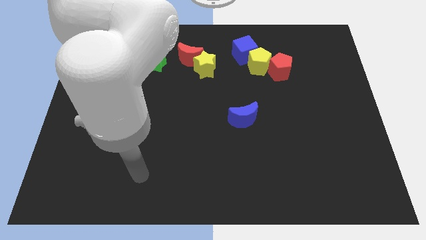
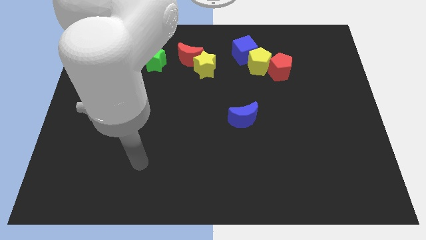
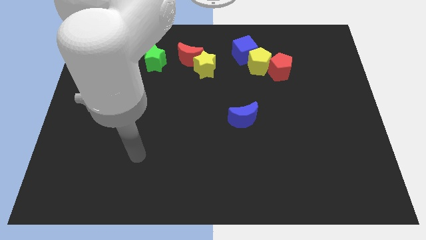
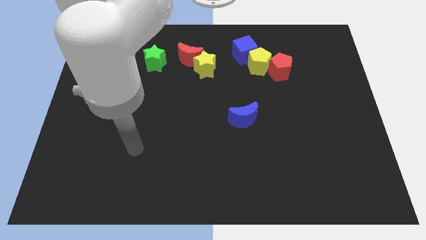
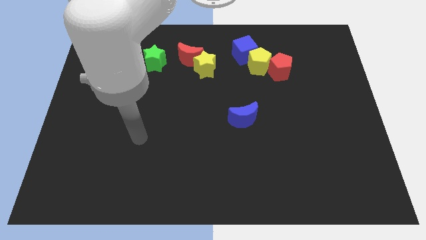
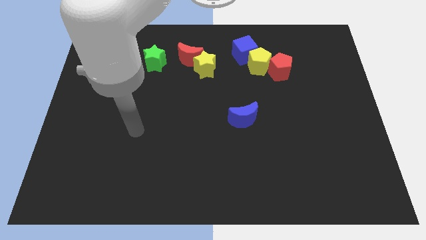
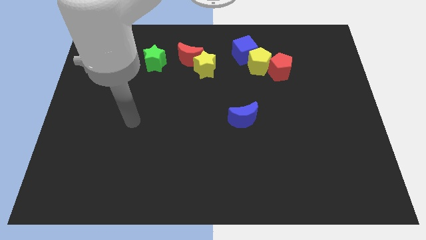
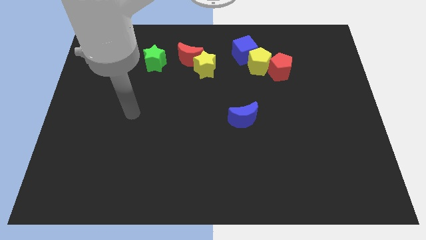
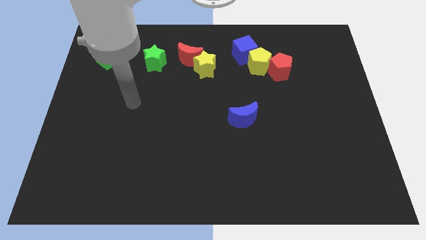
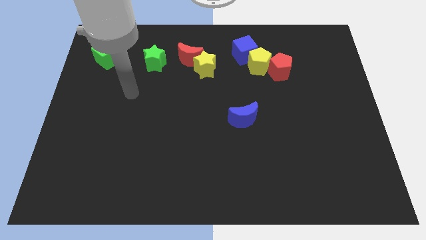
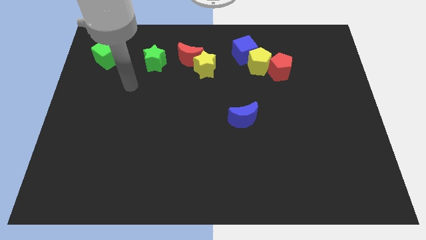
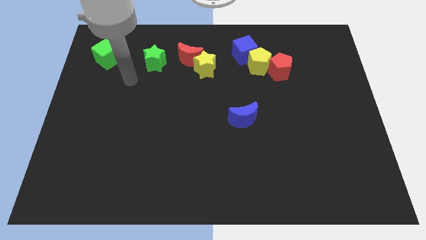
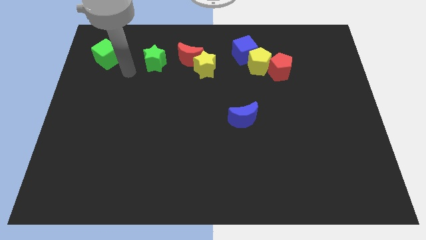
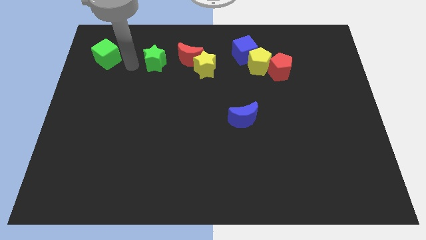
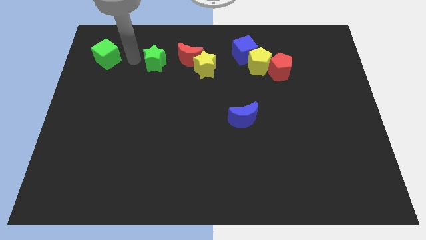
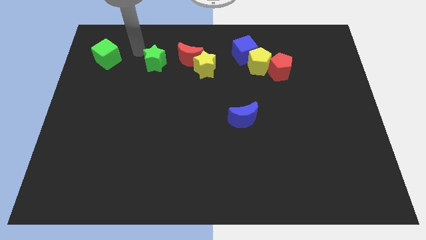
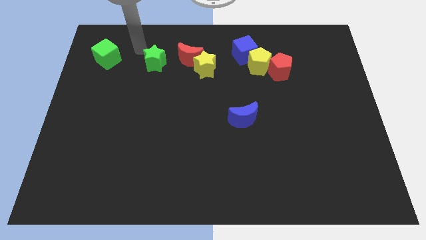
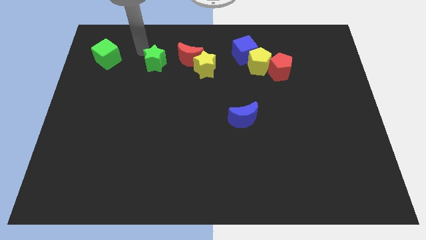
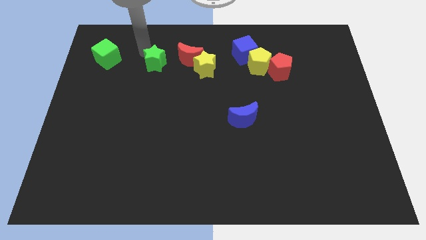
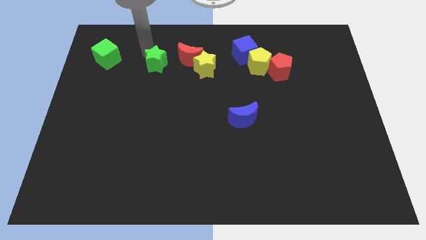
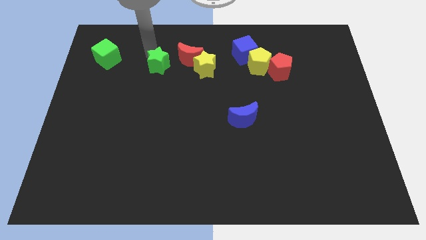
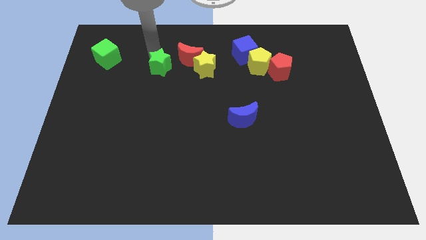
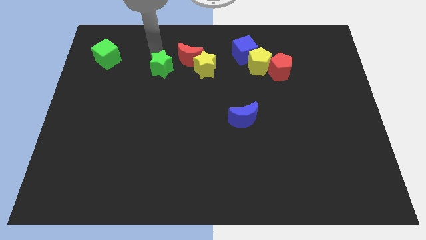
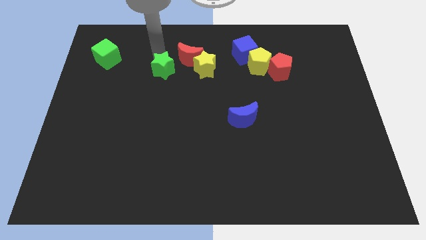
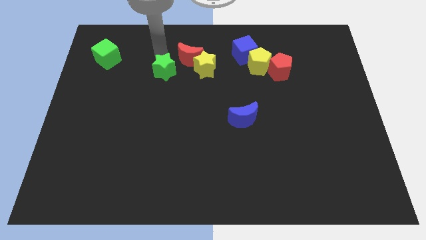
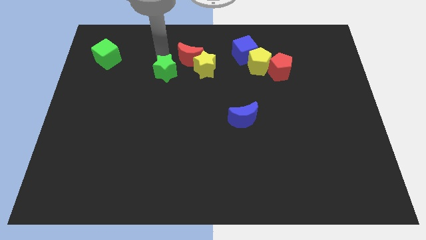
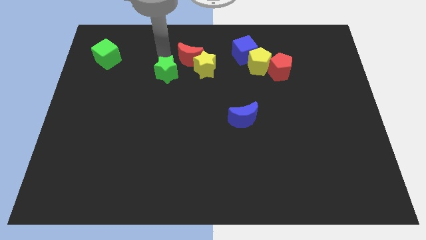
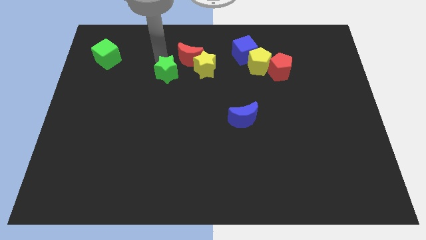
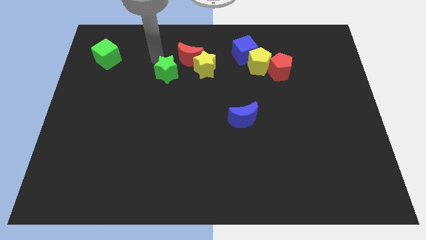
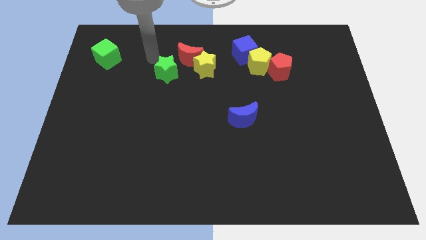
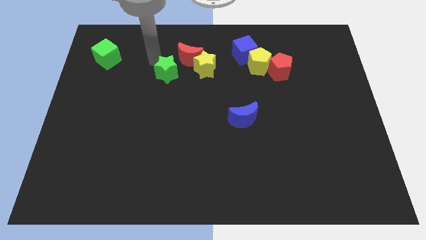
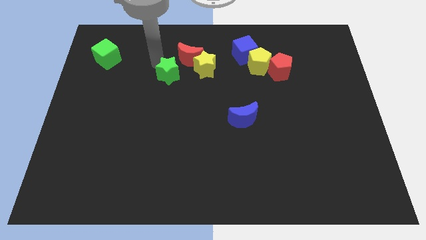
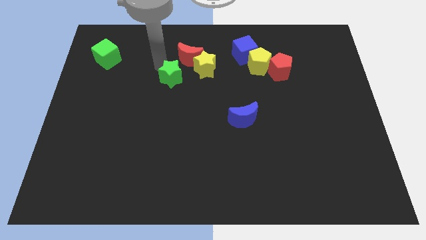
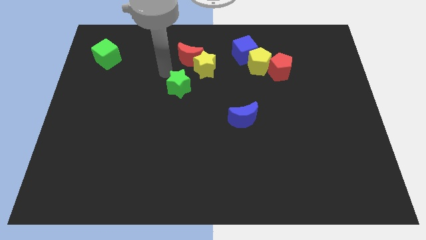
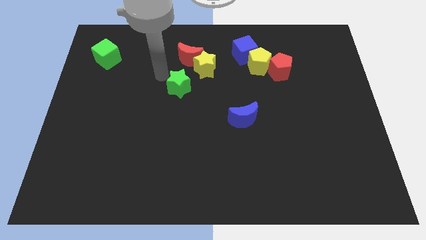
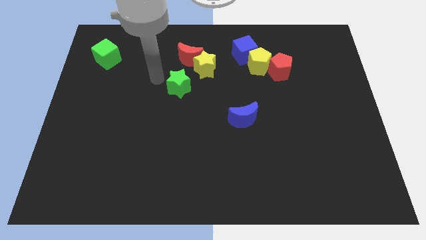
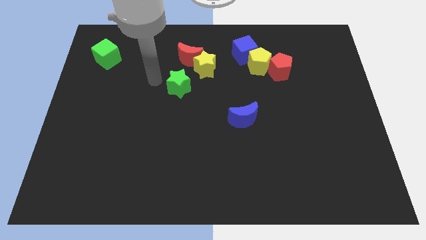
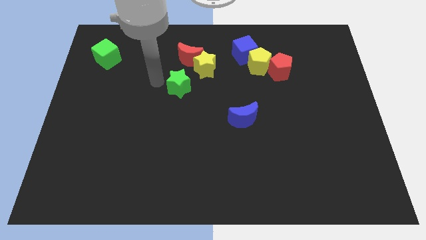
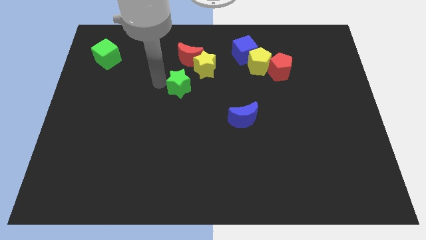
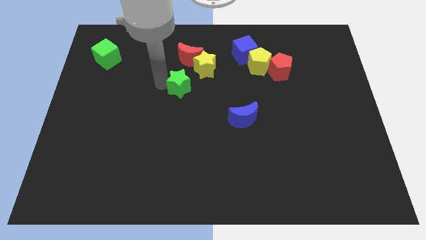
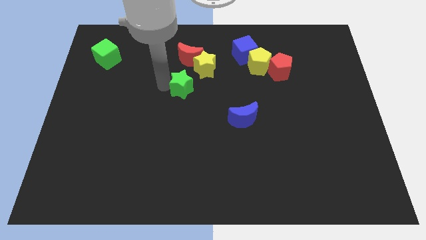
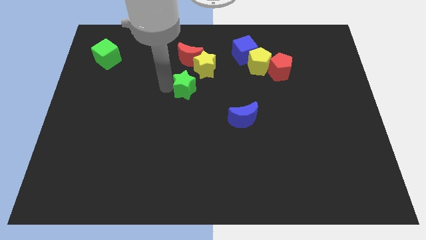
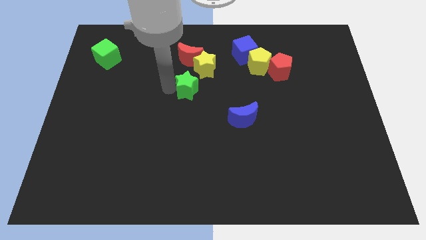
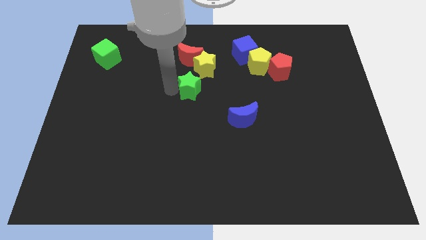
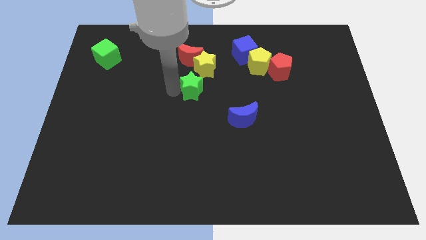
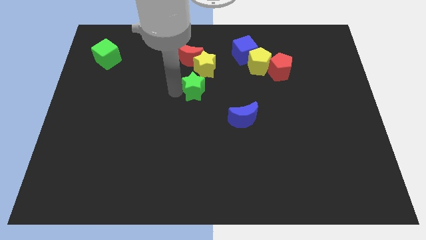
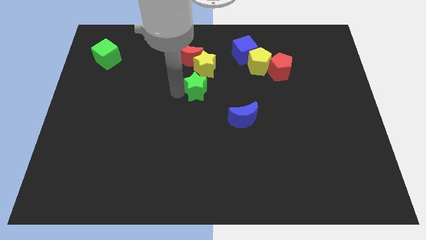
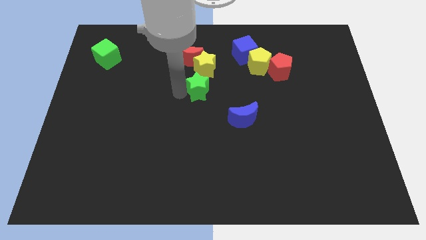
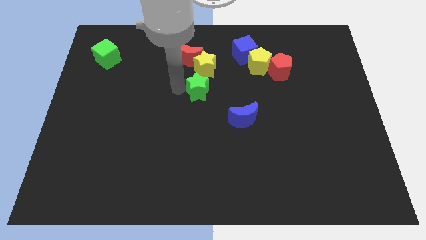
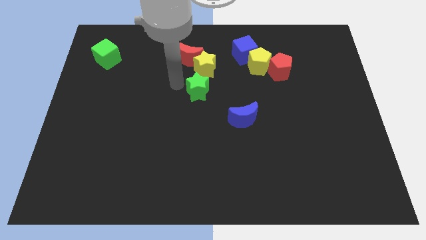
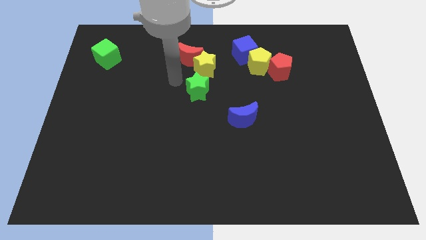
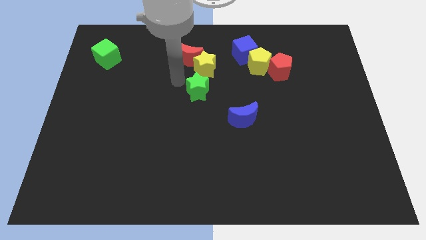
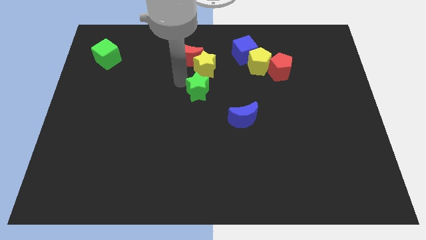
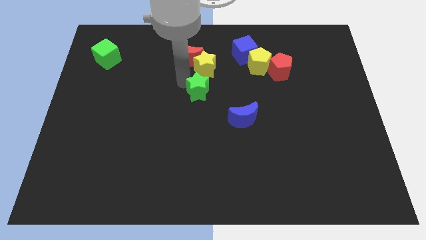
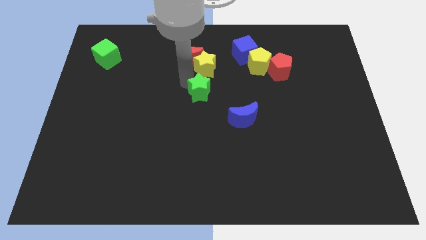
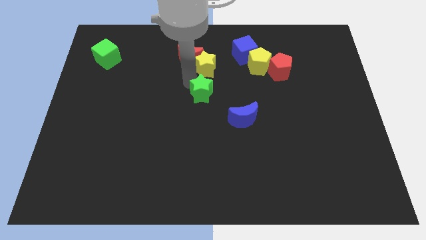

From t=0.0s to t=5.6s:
move the green star to the top left of the blue moon

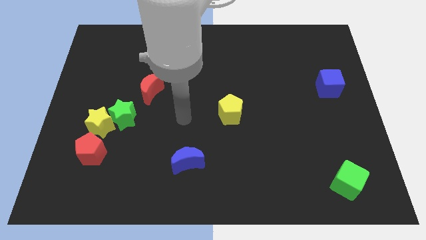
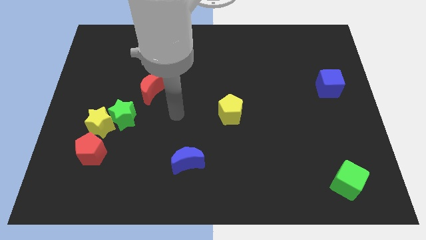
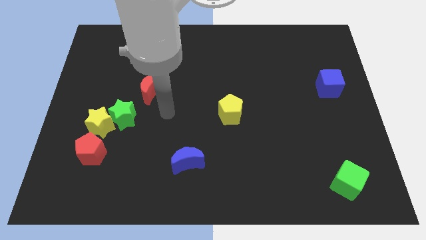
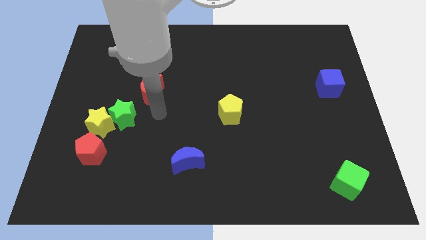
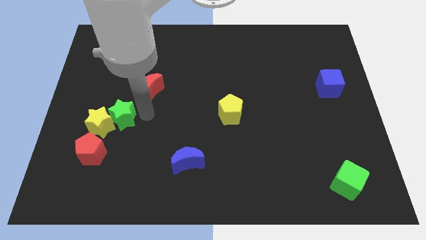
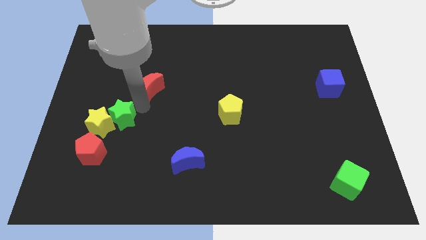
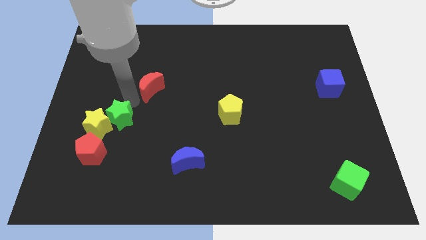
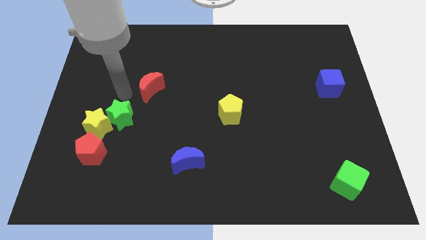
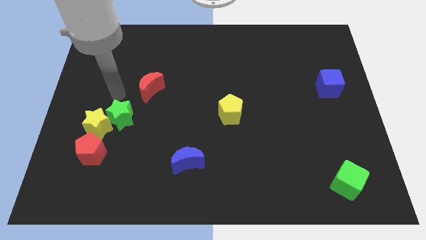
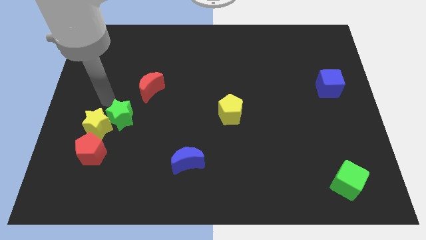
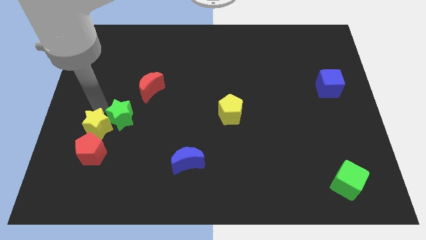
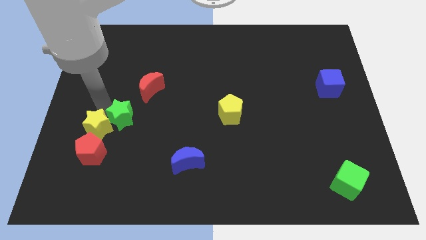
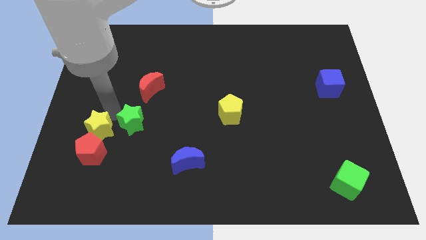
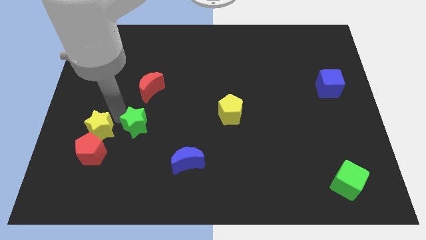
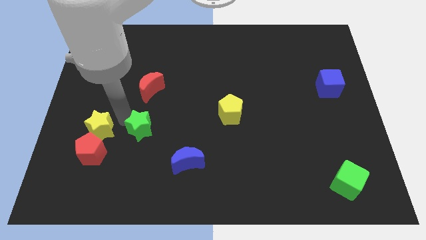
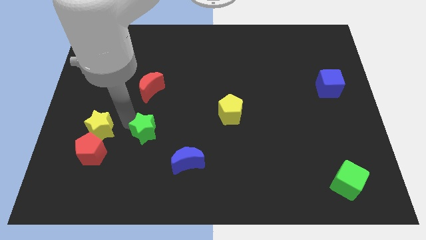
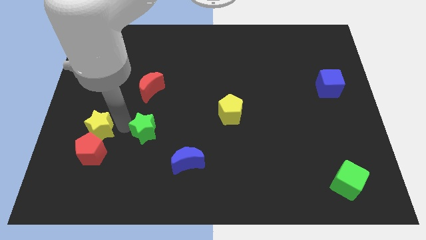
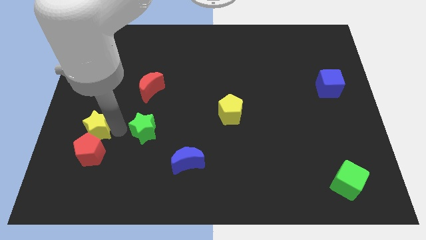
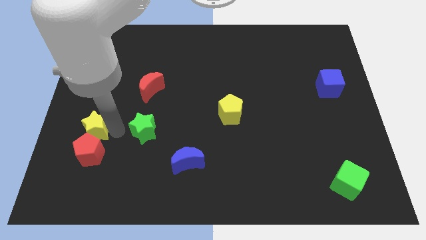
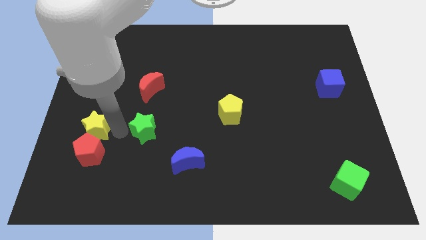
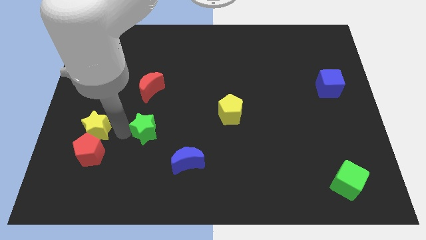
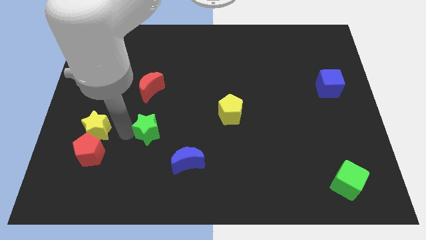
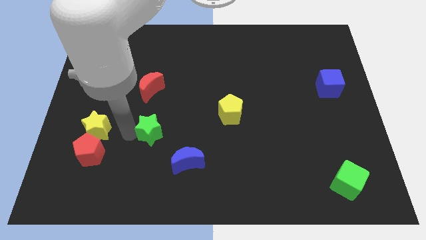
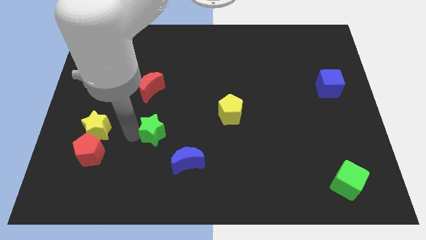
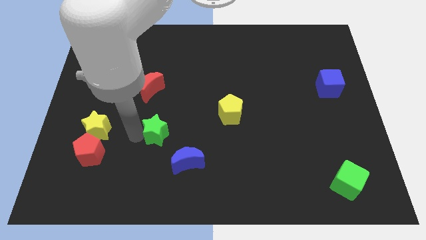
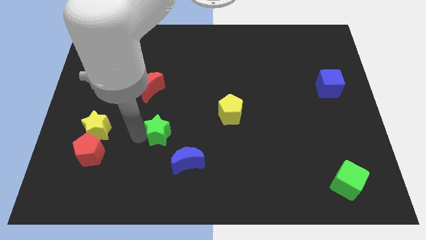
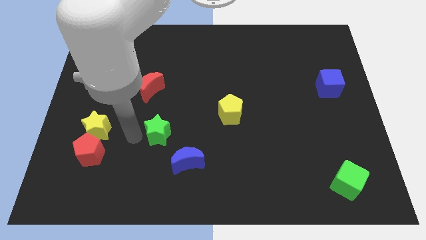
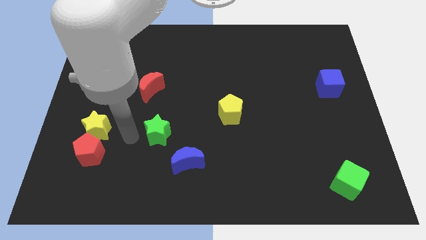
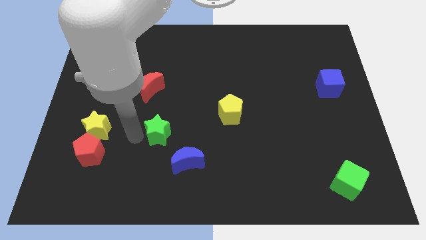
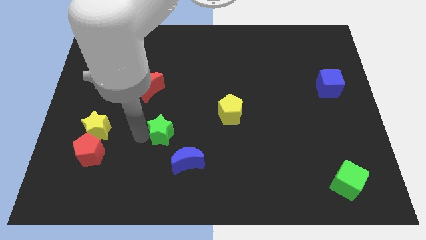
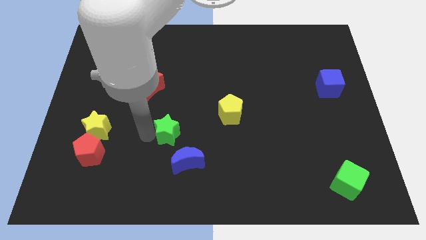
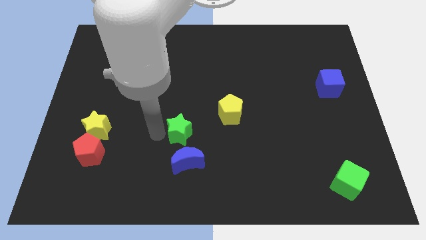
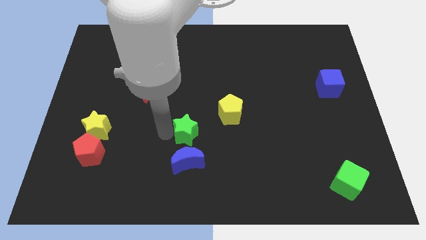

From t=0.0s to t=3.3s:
push the green star to the bottom left of the yellow pentagon
